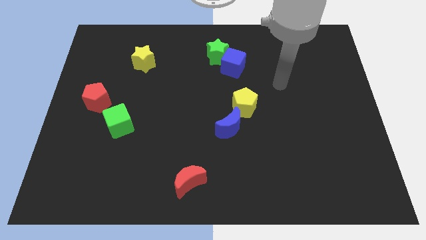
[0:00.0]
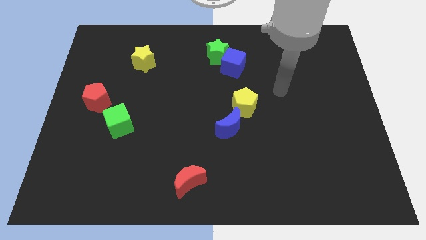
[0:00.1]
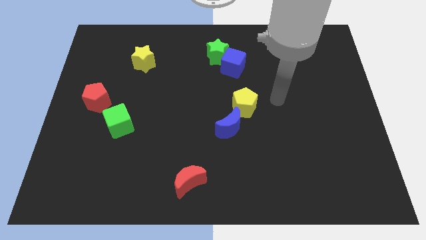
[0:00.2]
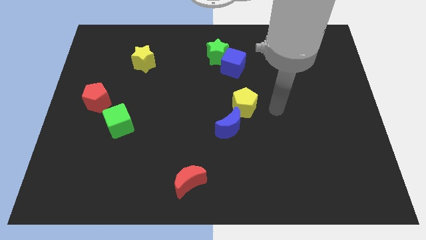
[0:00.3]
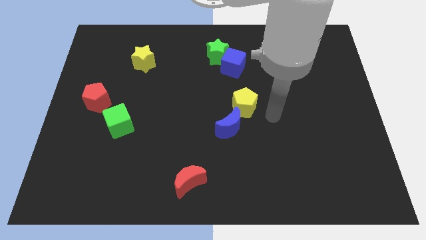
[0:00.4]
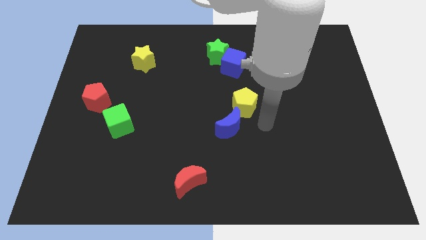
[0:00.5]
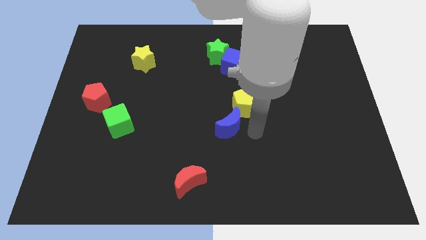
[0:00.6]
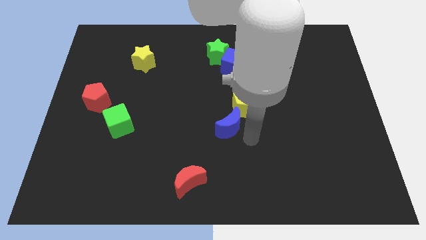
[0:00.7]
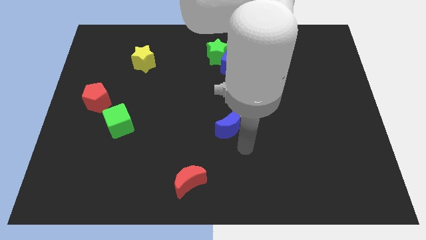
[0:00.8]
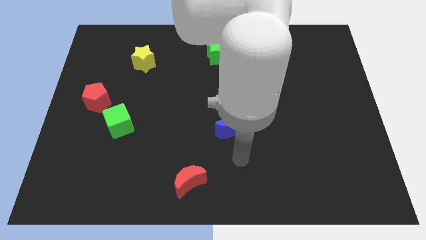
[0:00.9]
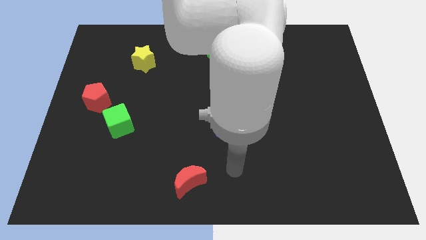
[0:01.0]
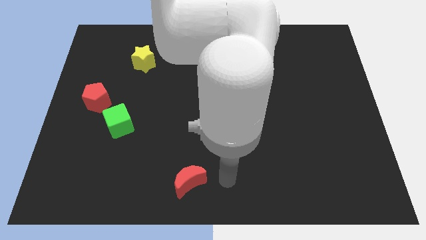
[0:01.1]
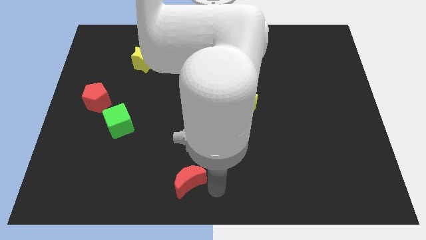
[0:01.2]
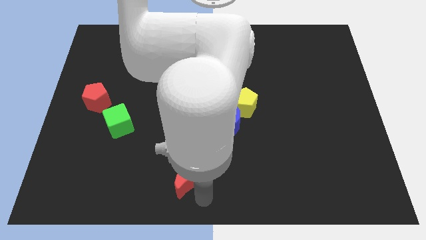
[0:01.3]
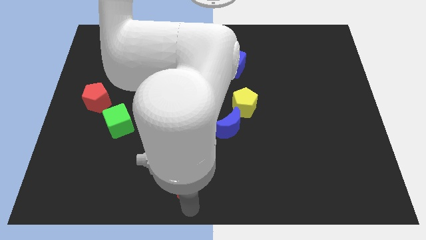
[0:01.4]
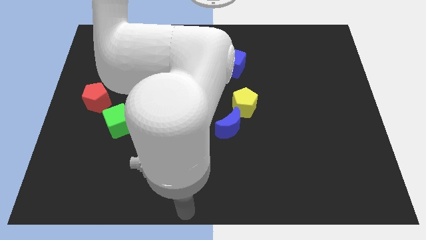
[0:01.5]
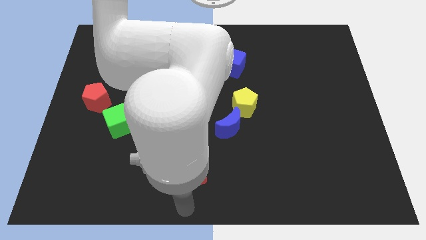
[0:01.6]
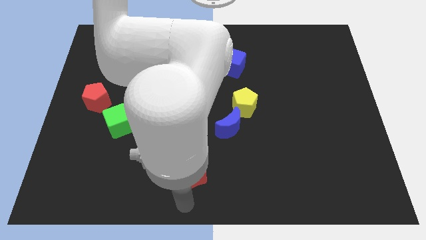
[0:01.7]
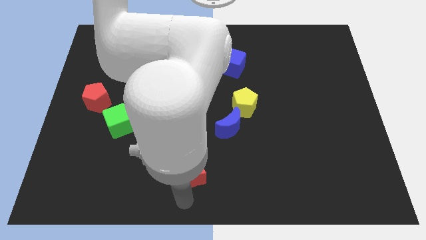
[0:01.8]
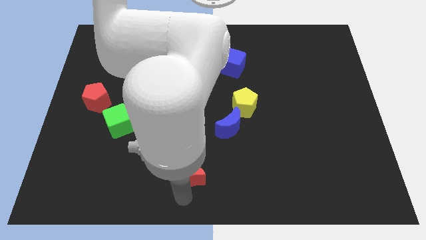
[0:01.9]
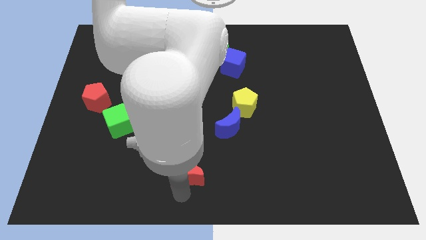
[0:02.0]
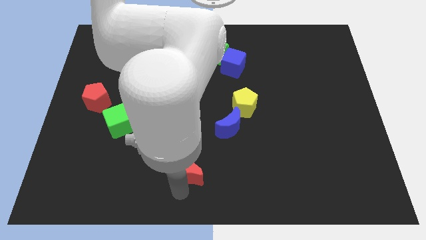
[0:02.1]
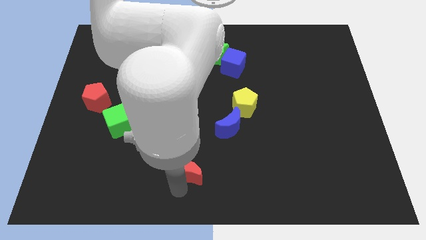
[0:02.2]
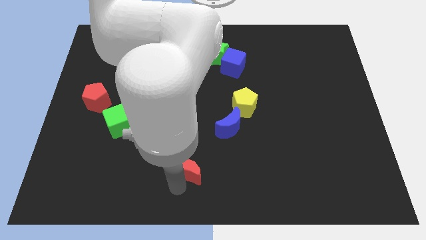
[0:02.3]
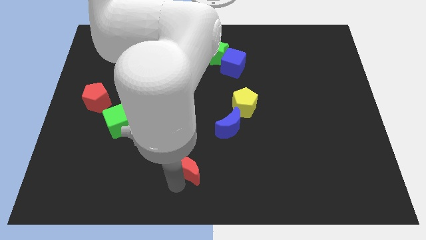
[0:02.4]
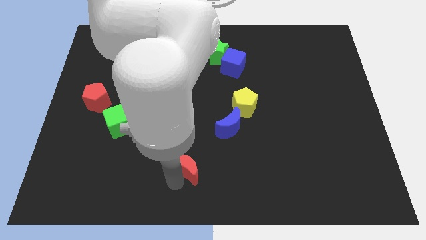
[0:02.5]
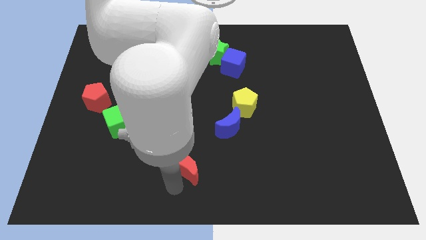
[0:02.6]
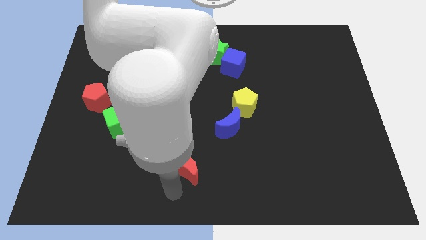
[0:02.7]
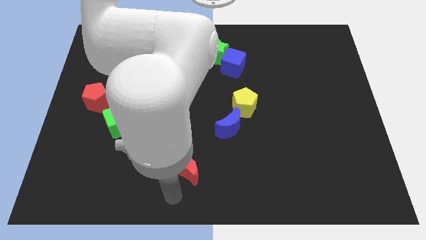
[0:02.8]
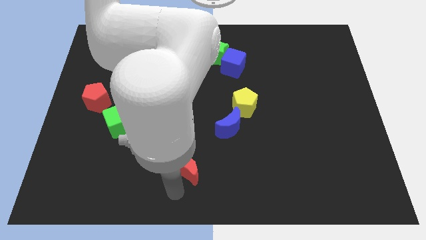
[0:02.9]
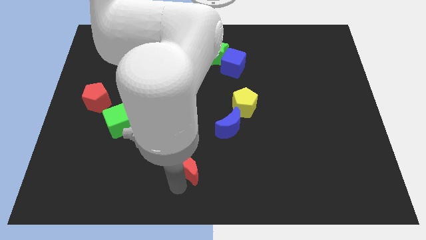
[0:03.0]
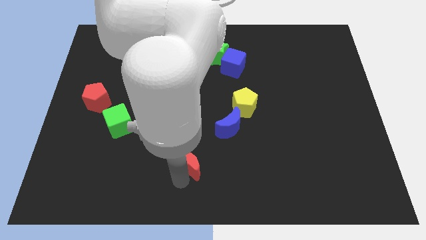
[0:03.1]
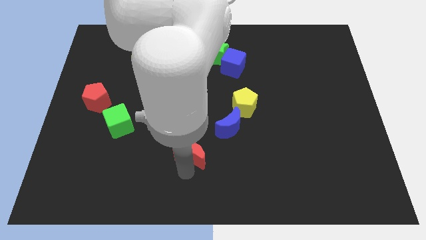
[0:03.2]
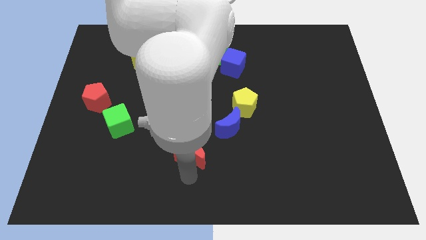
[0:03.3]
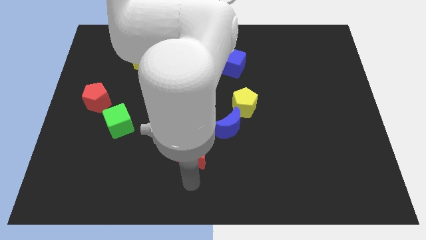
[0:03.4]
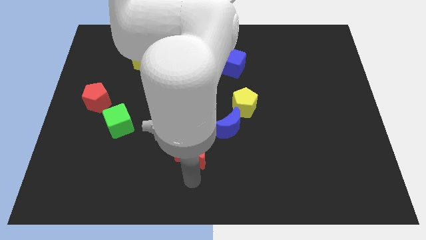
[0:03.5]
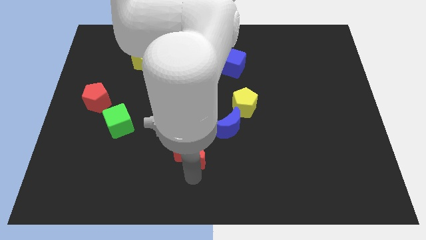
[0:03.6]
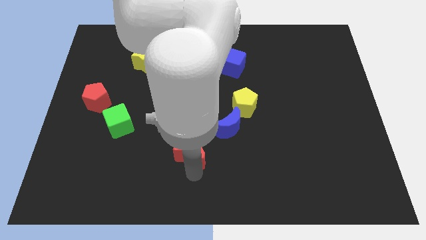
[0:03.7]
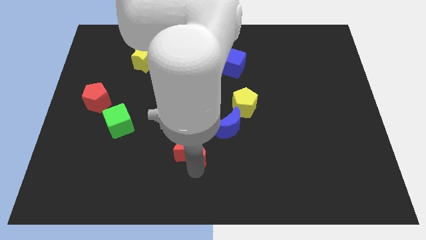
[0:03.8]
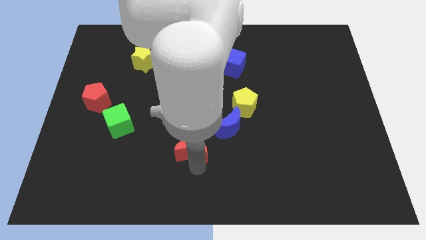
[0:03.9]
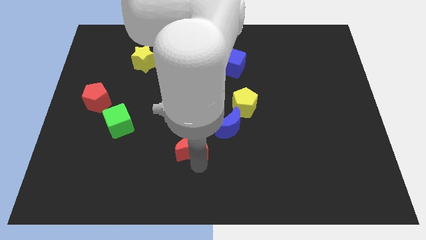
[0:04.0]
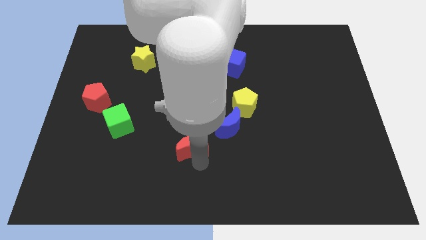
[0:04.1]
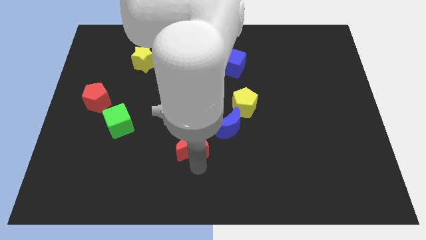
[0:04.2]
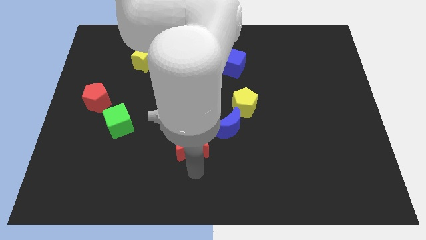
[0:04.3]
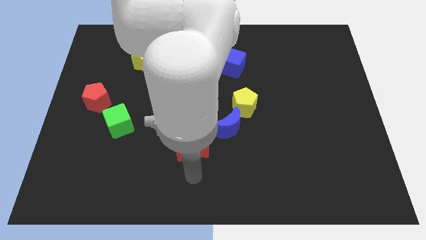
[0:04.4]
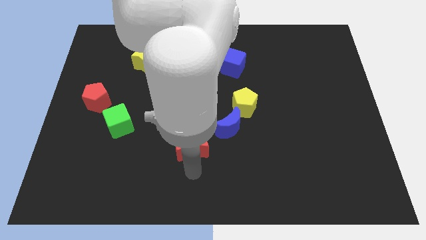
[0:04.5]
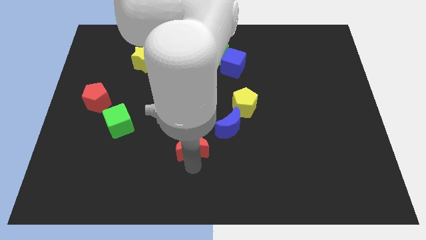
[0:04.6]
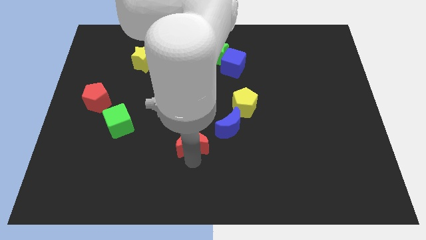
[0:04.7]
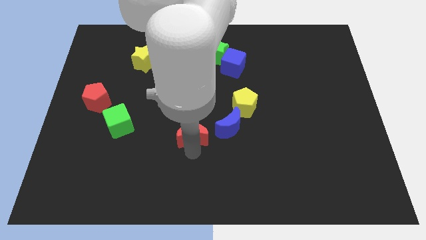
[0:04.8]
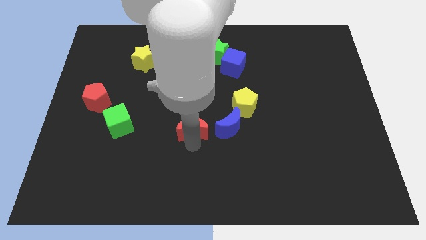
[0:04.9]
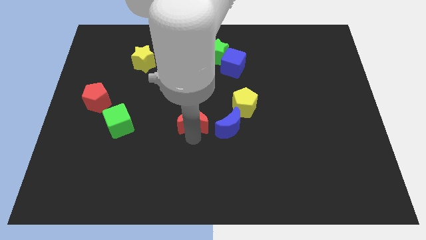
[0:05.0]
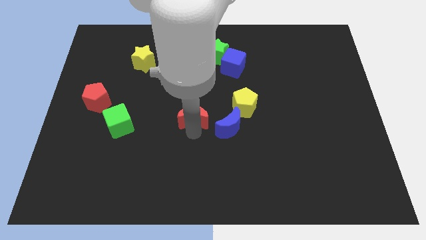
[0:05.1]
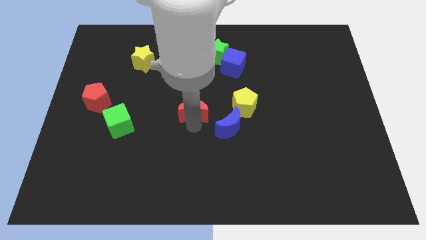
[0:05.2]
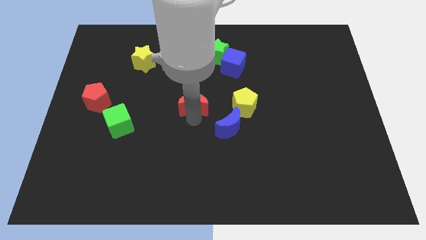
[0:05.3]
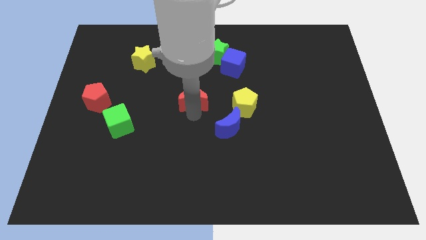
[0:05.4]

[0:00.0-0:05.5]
slide the red moon upwards

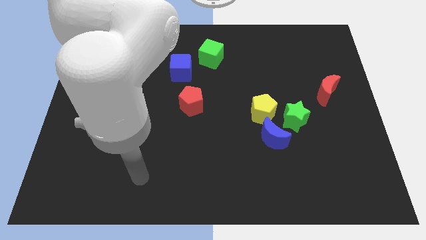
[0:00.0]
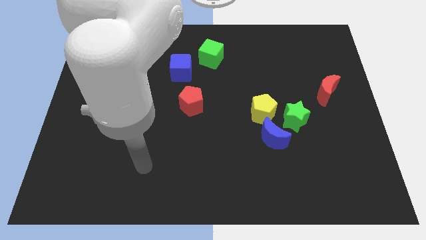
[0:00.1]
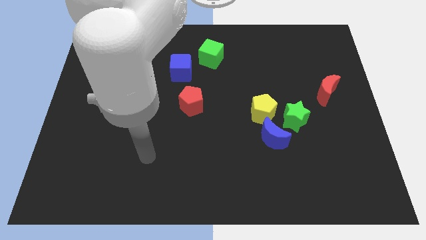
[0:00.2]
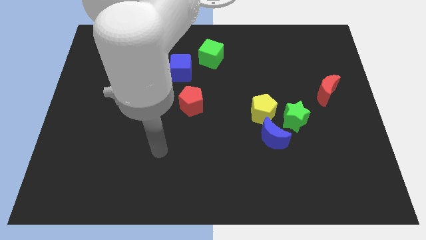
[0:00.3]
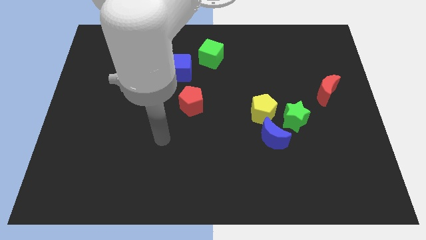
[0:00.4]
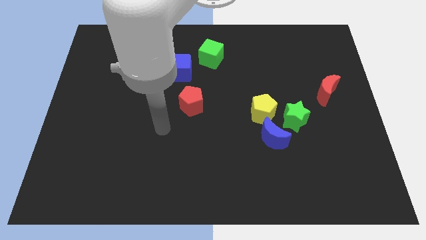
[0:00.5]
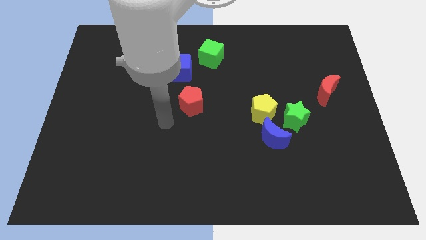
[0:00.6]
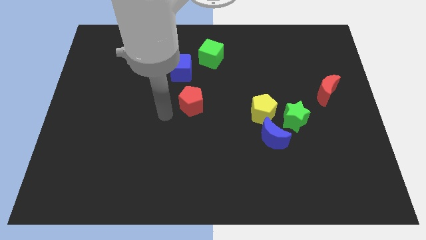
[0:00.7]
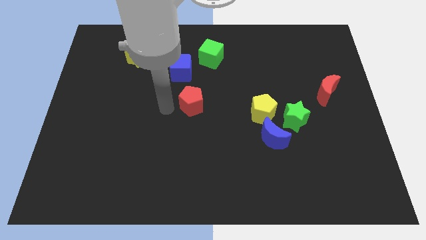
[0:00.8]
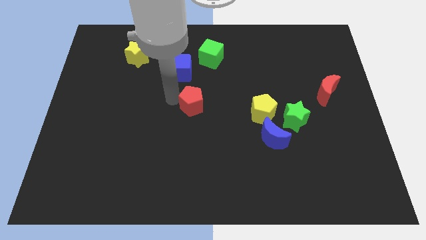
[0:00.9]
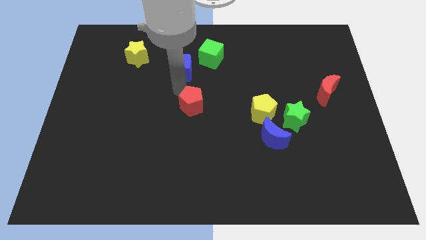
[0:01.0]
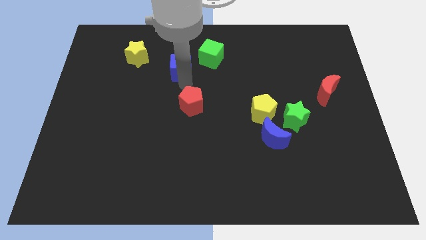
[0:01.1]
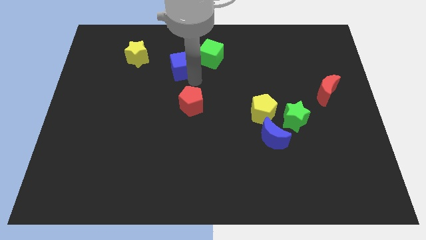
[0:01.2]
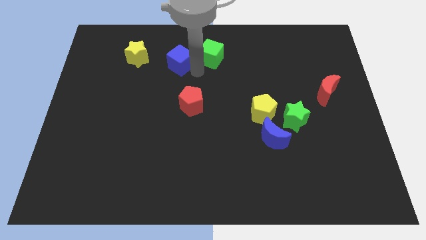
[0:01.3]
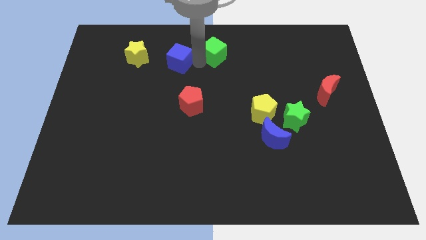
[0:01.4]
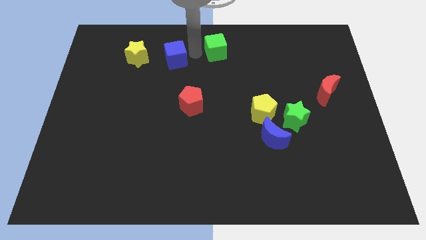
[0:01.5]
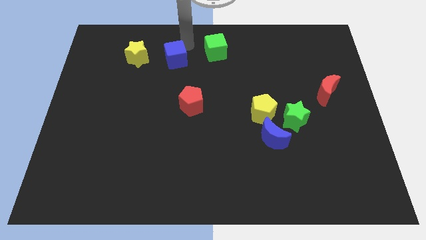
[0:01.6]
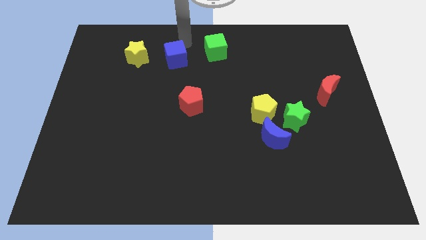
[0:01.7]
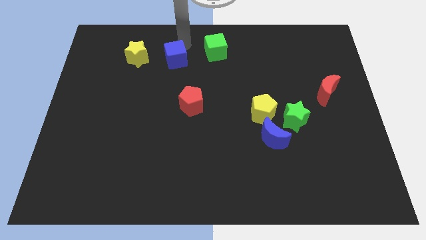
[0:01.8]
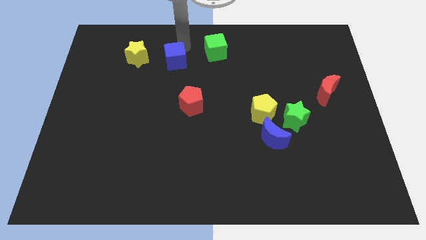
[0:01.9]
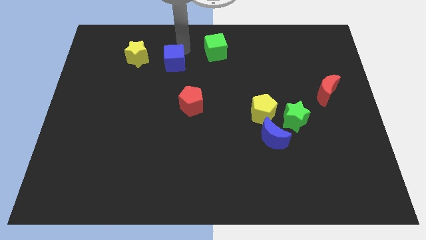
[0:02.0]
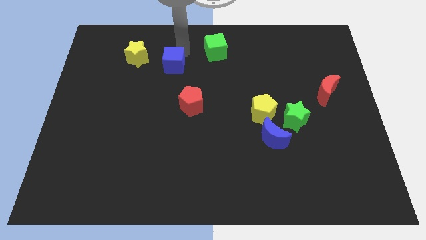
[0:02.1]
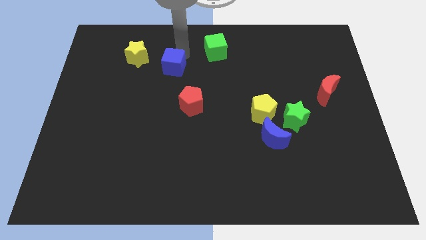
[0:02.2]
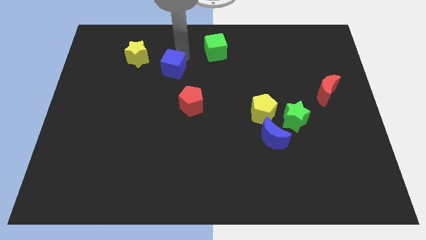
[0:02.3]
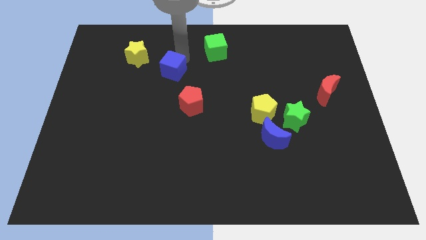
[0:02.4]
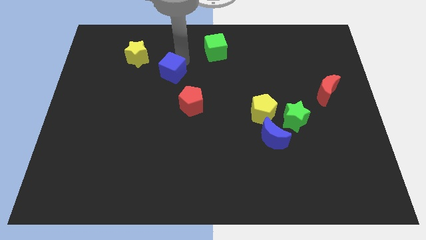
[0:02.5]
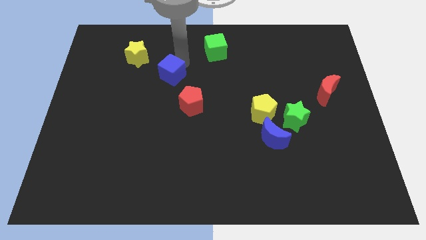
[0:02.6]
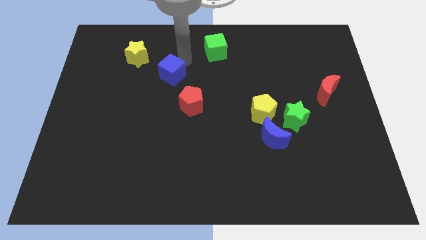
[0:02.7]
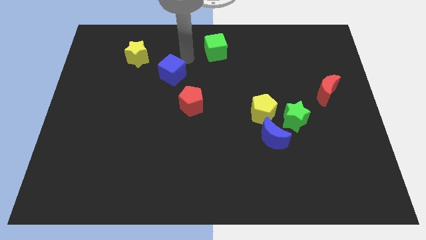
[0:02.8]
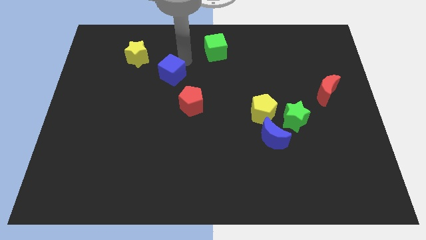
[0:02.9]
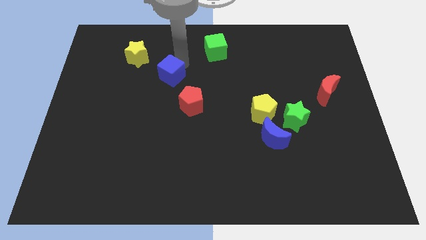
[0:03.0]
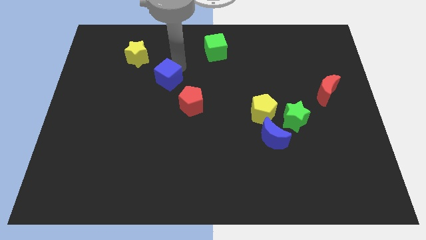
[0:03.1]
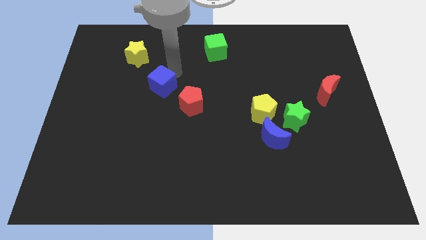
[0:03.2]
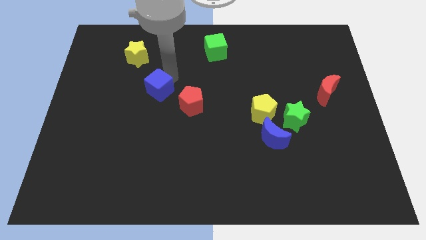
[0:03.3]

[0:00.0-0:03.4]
move the blue cube downwards and left diagonally slightly
